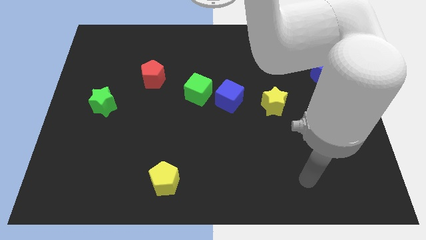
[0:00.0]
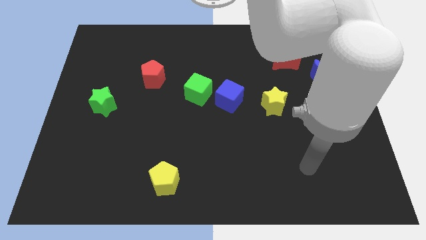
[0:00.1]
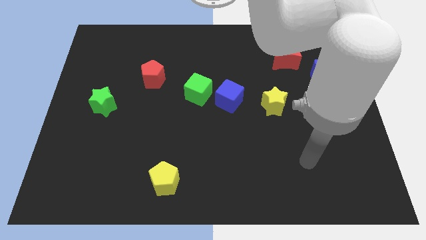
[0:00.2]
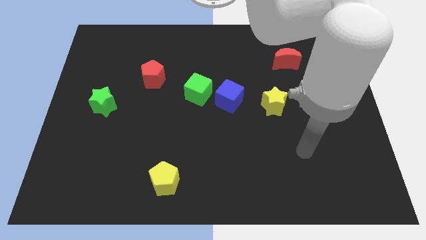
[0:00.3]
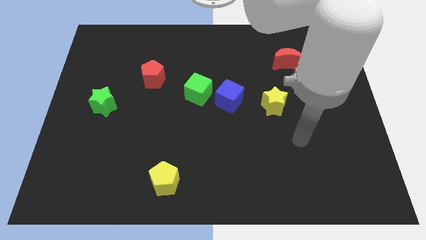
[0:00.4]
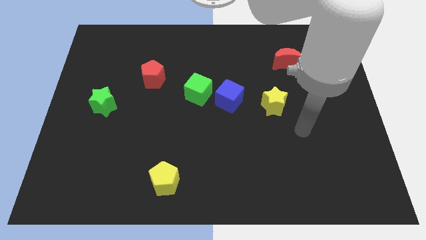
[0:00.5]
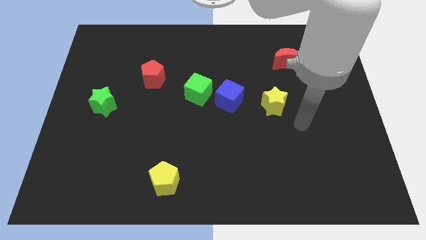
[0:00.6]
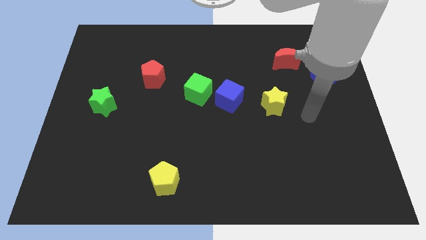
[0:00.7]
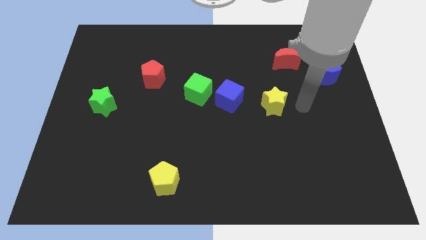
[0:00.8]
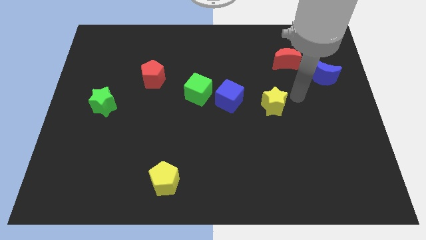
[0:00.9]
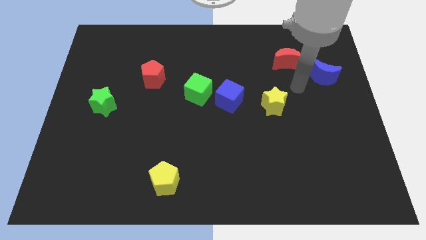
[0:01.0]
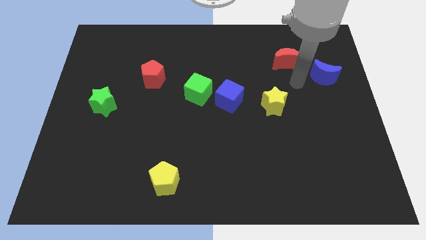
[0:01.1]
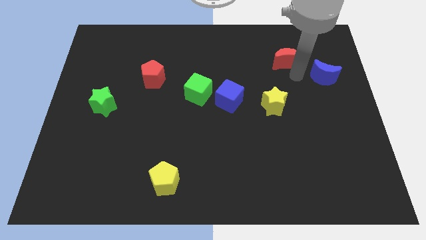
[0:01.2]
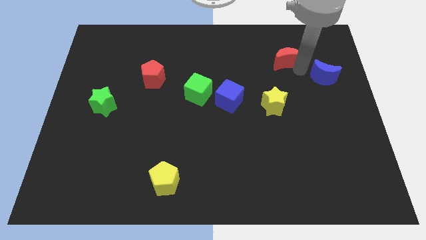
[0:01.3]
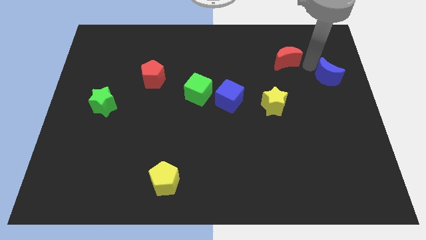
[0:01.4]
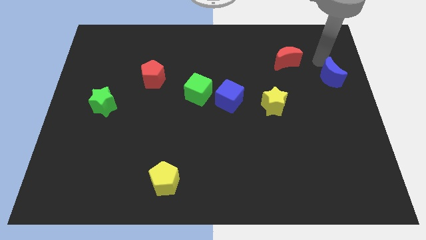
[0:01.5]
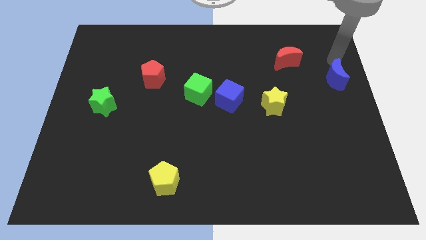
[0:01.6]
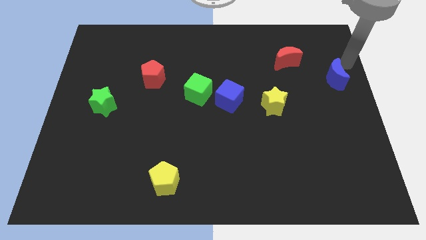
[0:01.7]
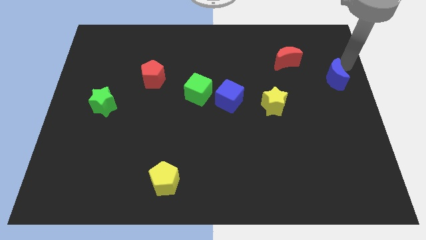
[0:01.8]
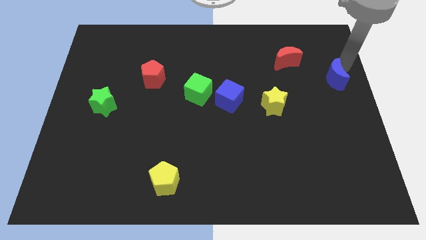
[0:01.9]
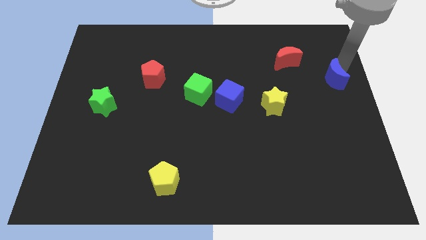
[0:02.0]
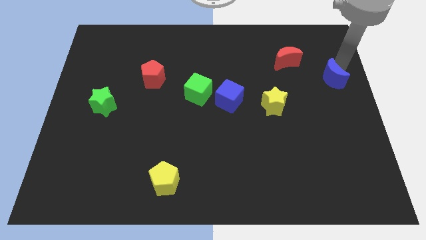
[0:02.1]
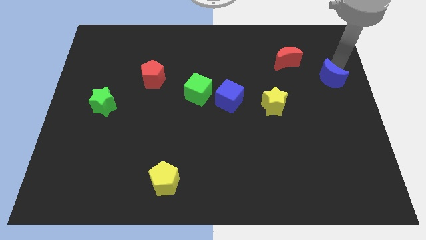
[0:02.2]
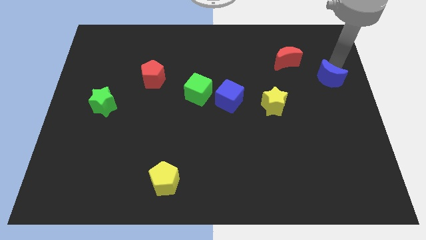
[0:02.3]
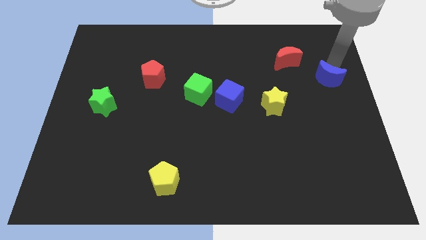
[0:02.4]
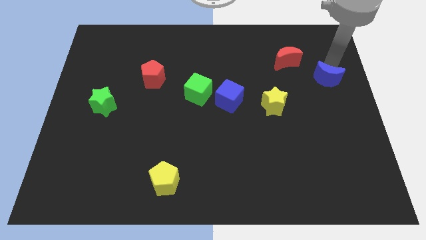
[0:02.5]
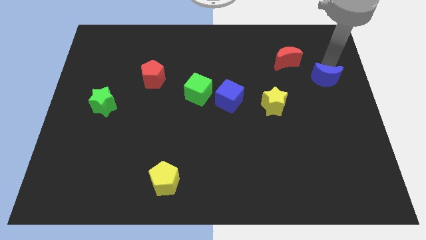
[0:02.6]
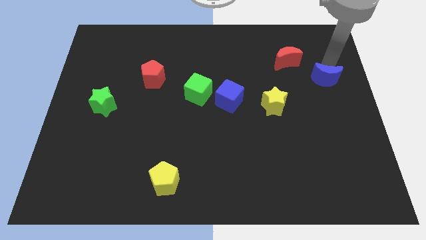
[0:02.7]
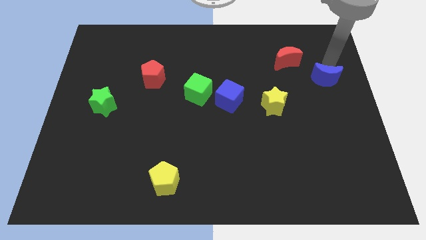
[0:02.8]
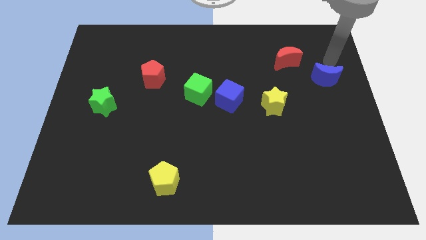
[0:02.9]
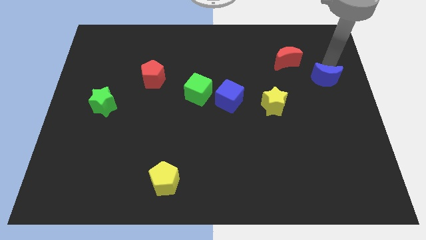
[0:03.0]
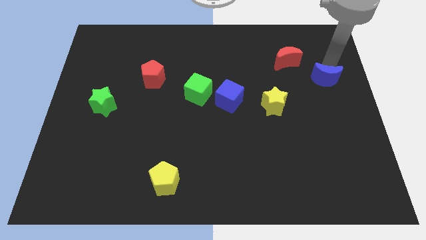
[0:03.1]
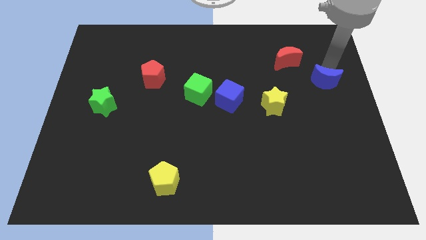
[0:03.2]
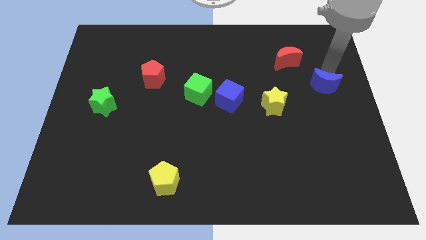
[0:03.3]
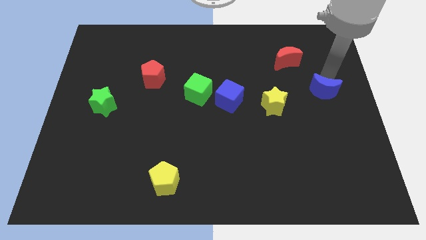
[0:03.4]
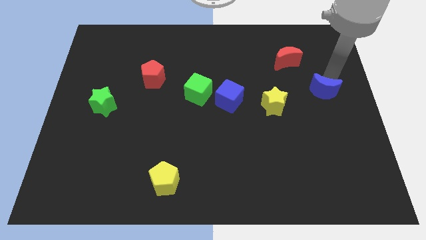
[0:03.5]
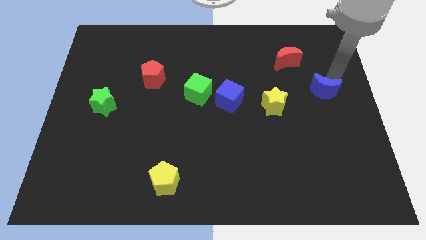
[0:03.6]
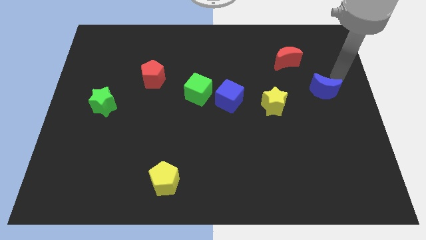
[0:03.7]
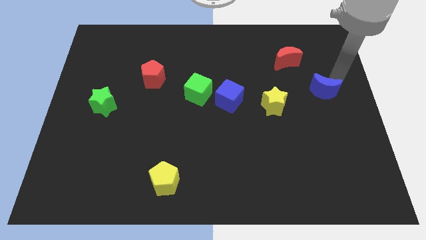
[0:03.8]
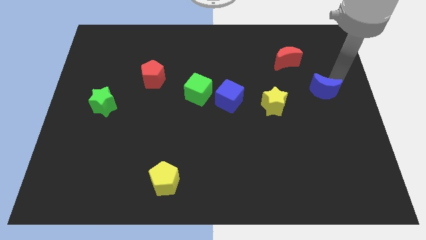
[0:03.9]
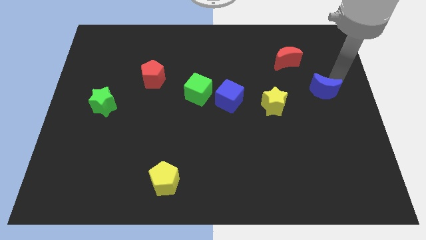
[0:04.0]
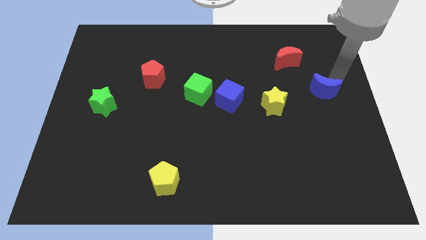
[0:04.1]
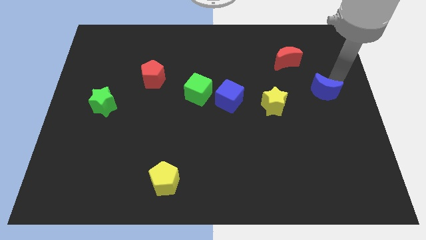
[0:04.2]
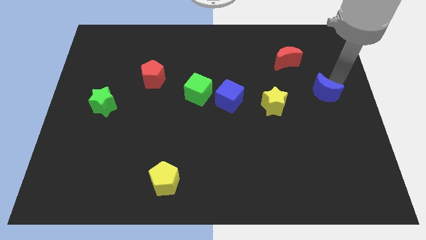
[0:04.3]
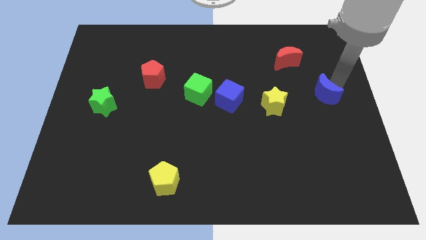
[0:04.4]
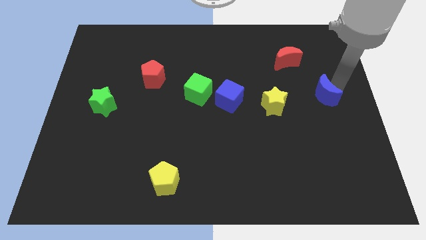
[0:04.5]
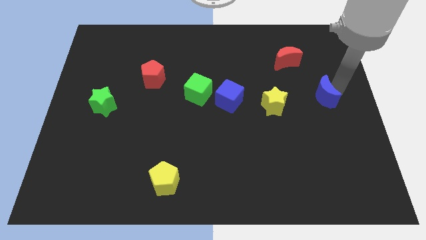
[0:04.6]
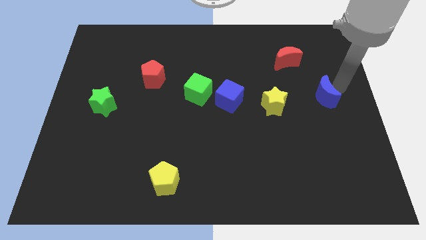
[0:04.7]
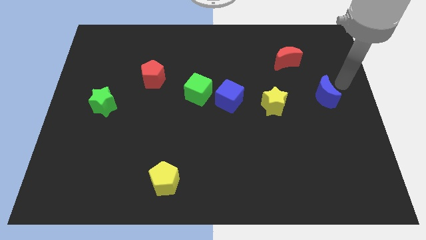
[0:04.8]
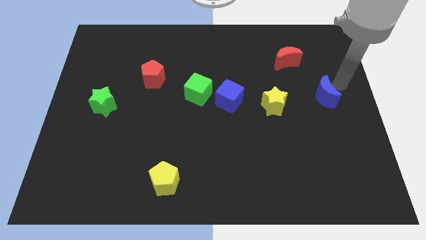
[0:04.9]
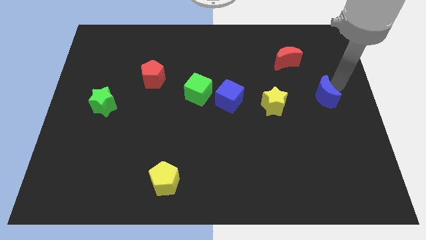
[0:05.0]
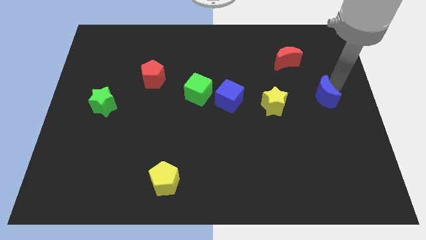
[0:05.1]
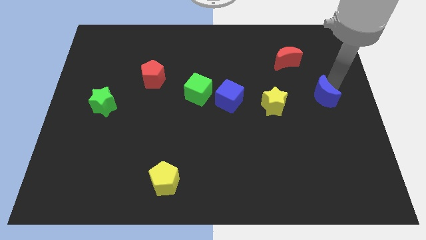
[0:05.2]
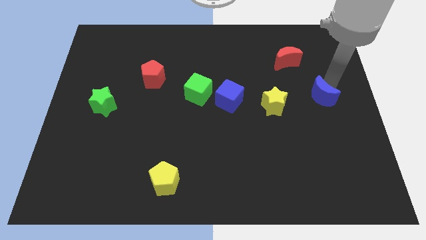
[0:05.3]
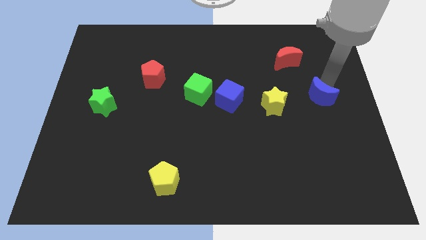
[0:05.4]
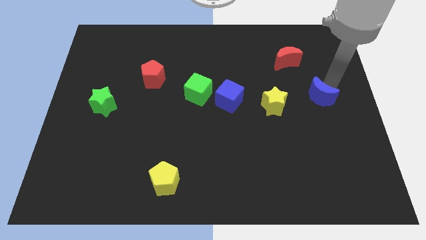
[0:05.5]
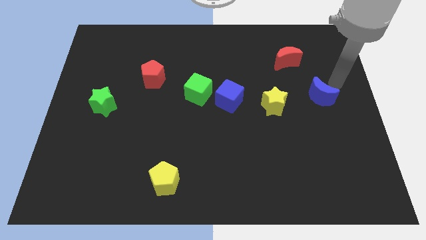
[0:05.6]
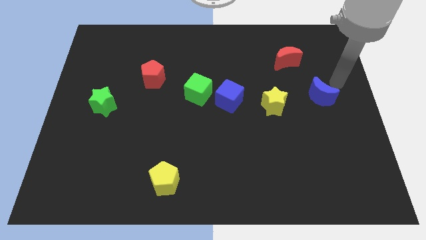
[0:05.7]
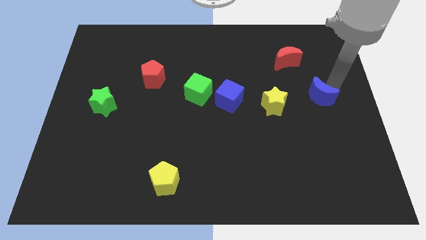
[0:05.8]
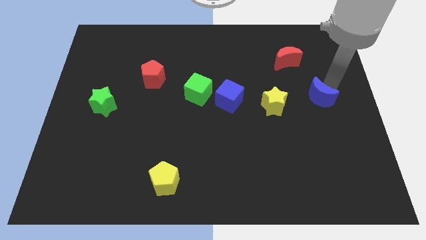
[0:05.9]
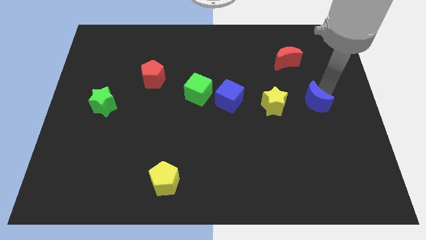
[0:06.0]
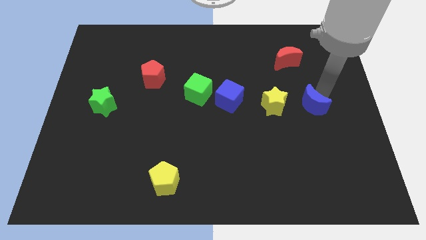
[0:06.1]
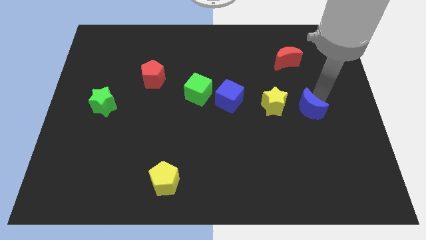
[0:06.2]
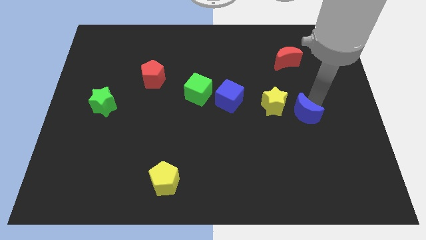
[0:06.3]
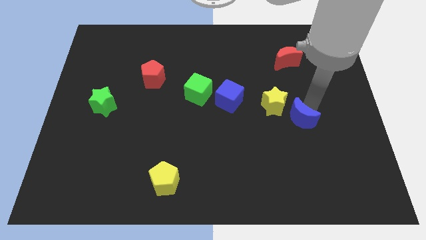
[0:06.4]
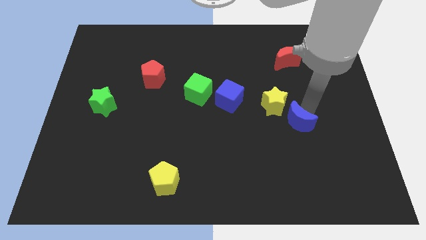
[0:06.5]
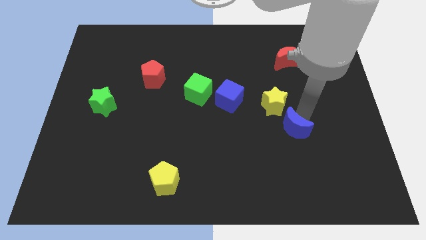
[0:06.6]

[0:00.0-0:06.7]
put the blue moon to the bottom of the yellow star
